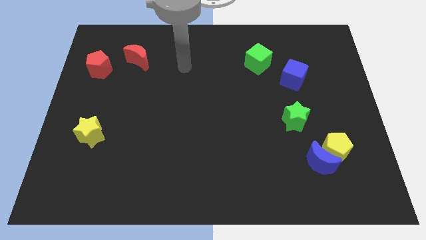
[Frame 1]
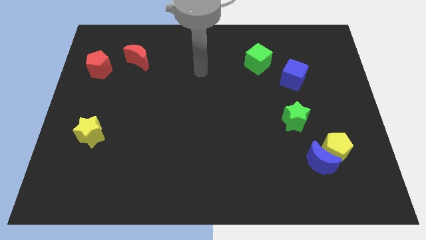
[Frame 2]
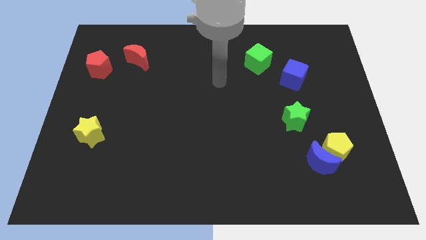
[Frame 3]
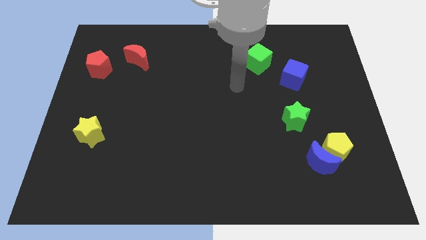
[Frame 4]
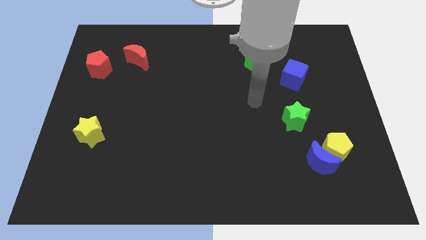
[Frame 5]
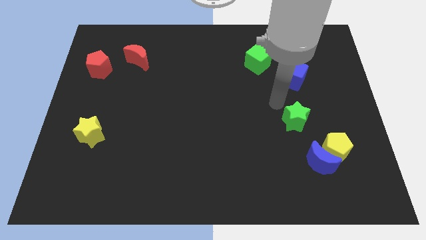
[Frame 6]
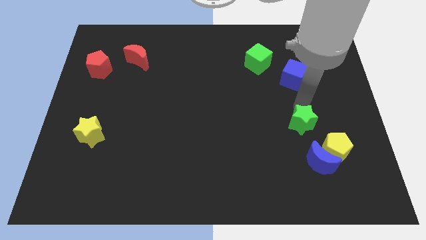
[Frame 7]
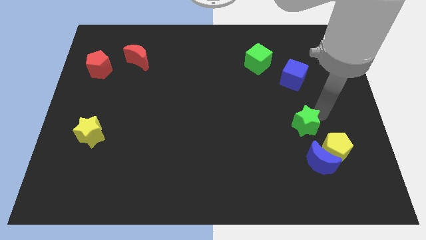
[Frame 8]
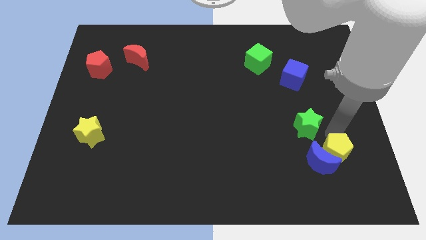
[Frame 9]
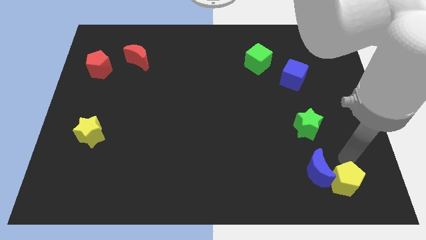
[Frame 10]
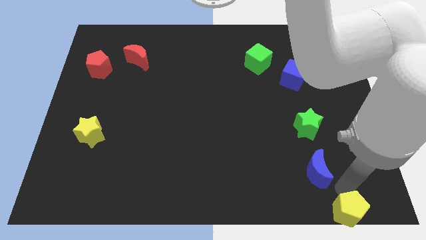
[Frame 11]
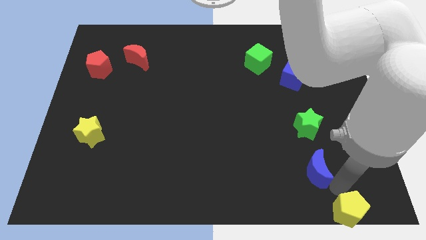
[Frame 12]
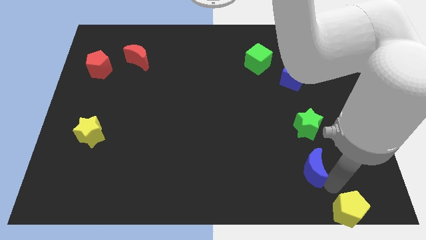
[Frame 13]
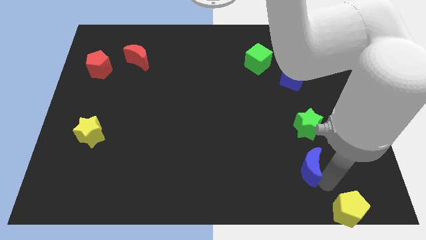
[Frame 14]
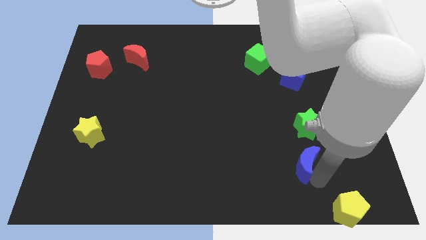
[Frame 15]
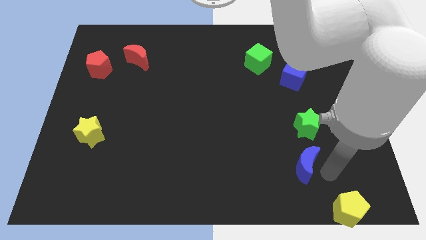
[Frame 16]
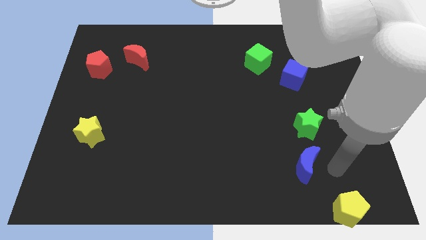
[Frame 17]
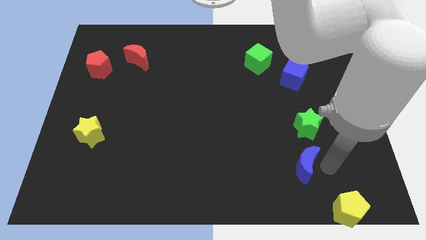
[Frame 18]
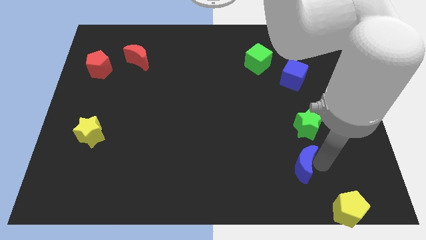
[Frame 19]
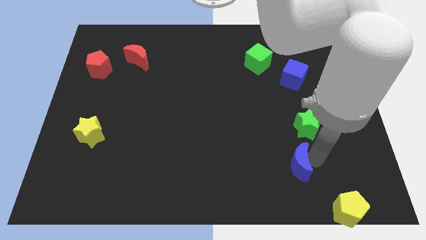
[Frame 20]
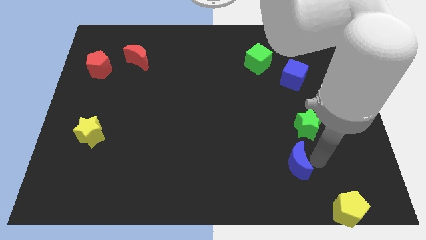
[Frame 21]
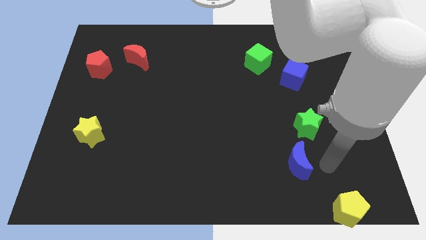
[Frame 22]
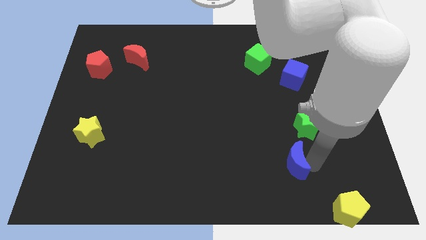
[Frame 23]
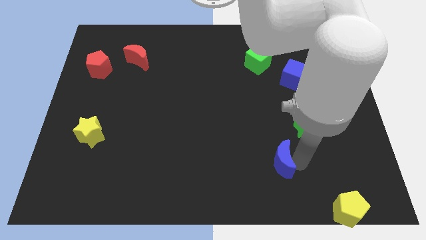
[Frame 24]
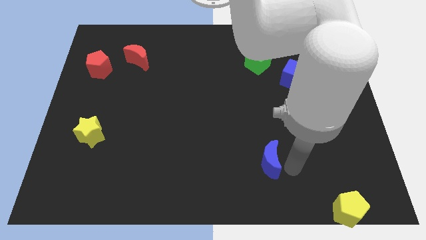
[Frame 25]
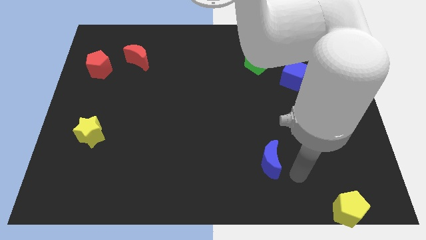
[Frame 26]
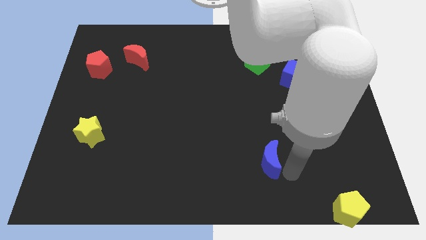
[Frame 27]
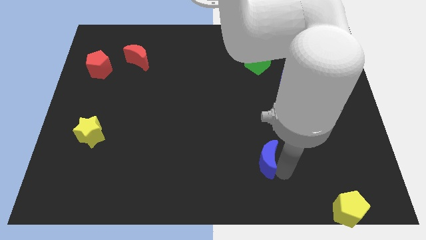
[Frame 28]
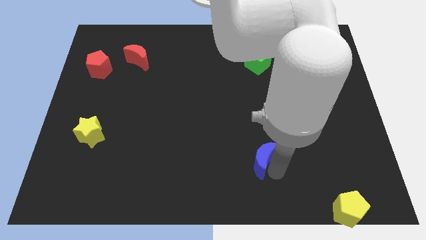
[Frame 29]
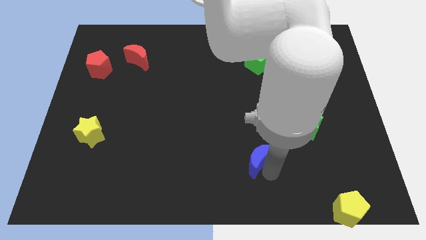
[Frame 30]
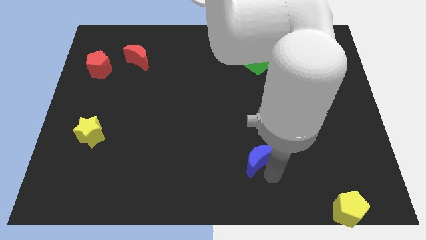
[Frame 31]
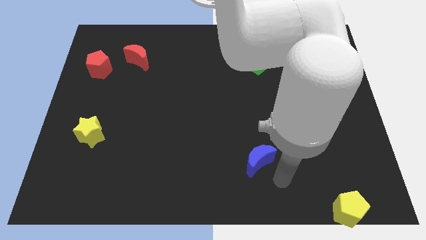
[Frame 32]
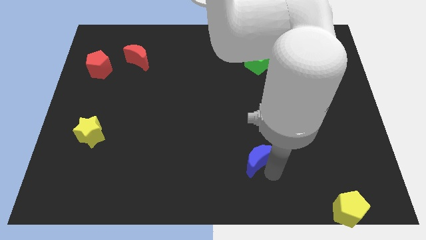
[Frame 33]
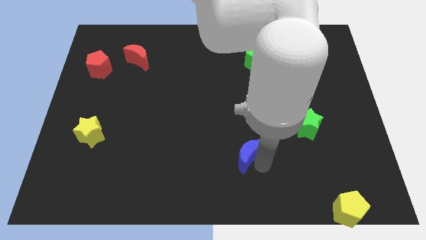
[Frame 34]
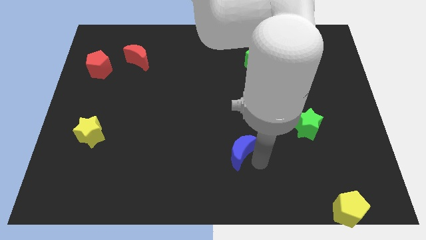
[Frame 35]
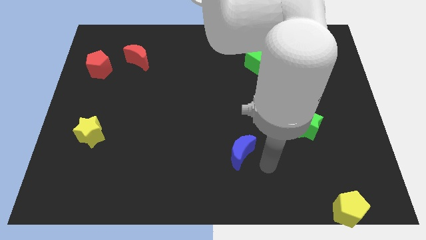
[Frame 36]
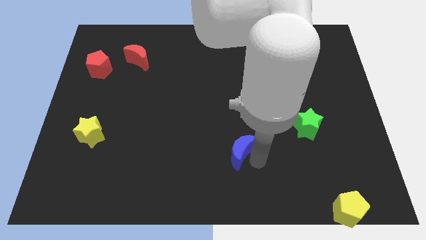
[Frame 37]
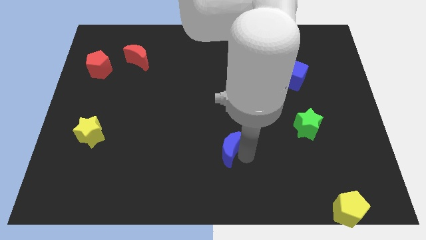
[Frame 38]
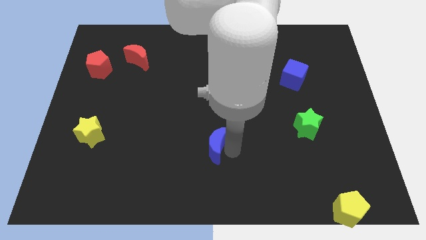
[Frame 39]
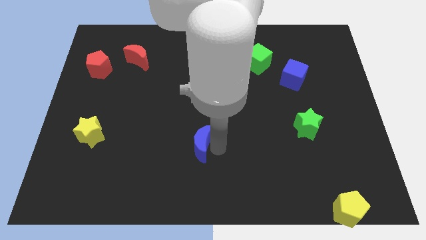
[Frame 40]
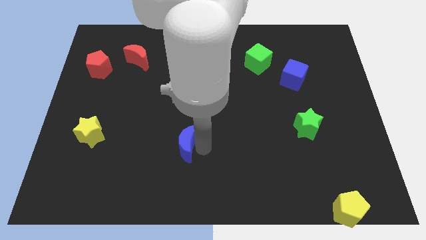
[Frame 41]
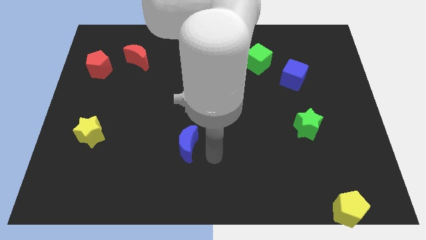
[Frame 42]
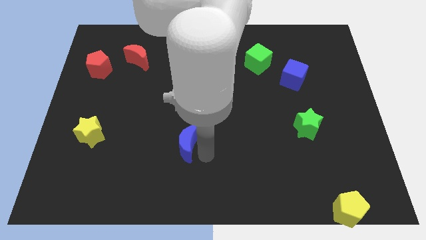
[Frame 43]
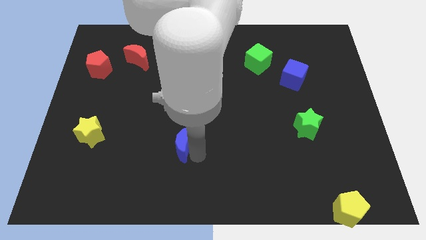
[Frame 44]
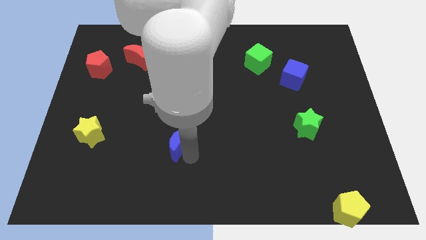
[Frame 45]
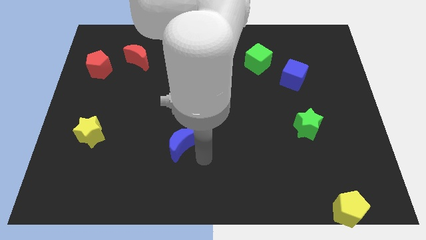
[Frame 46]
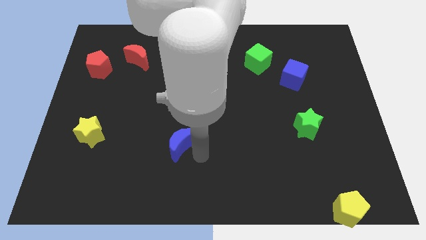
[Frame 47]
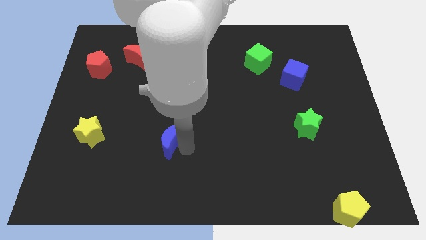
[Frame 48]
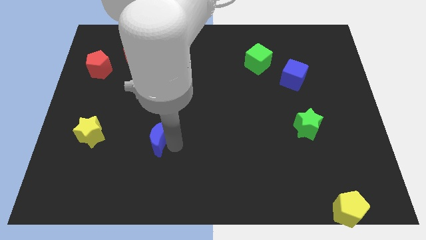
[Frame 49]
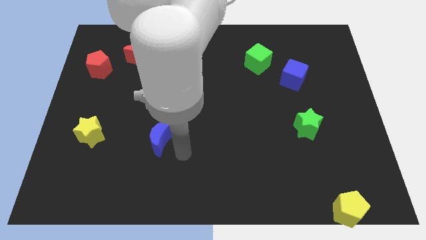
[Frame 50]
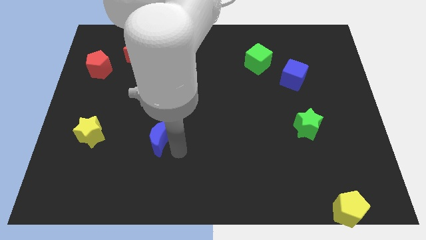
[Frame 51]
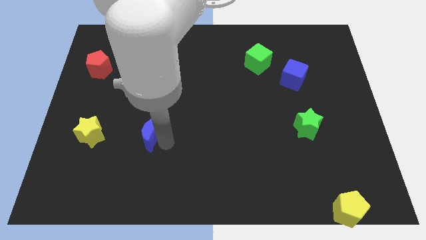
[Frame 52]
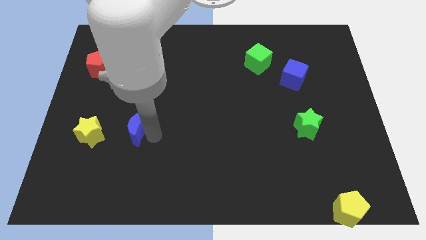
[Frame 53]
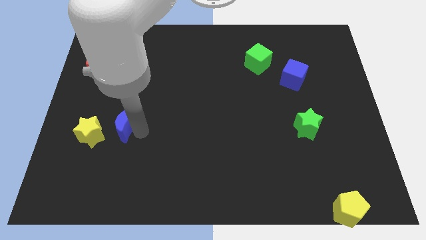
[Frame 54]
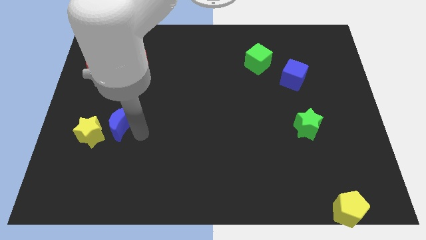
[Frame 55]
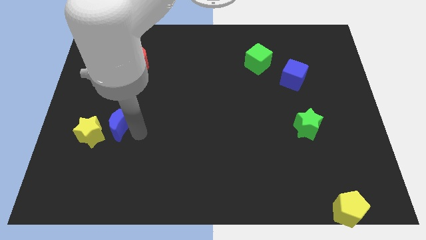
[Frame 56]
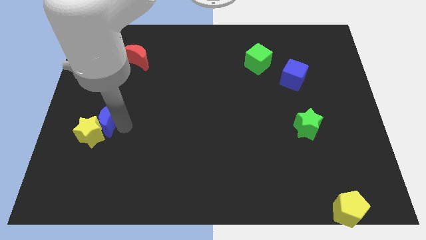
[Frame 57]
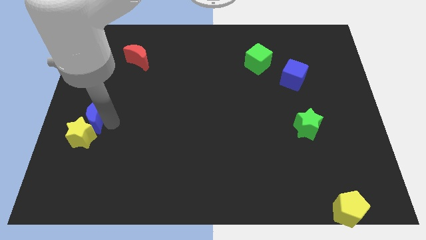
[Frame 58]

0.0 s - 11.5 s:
put the blue moon to the center left

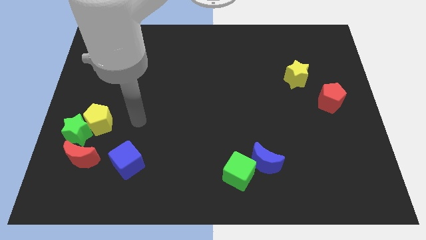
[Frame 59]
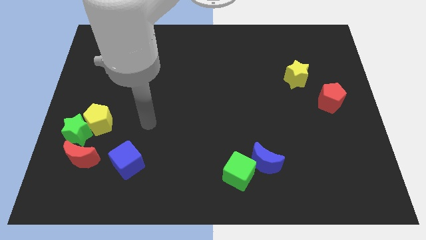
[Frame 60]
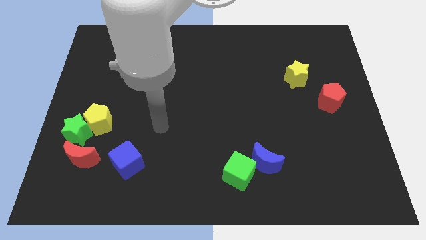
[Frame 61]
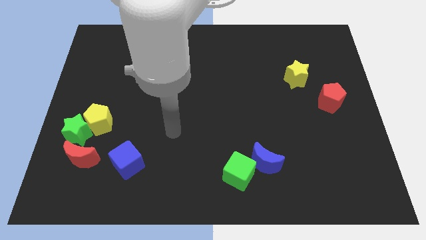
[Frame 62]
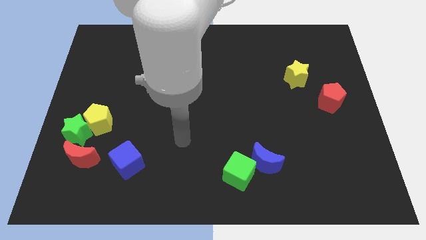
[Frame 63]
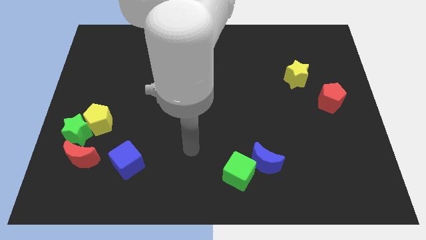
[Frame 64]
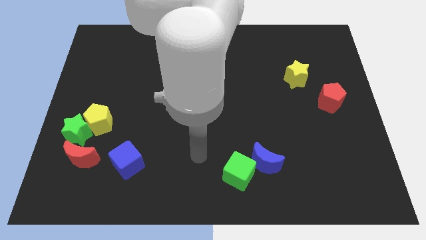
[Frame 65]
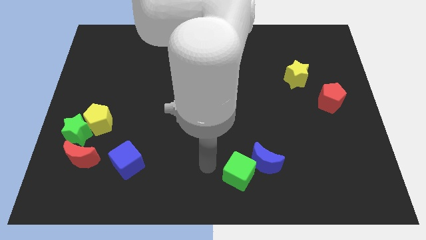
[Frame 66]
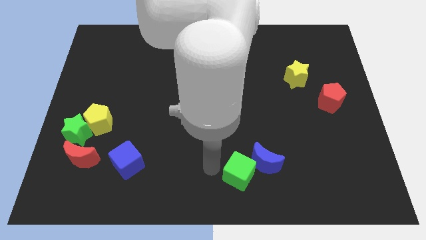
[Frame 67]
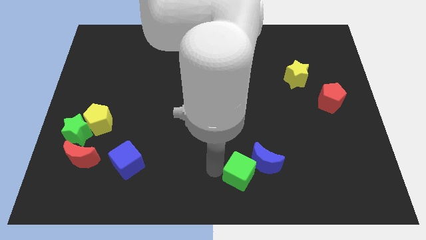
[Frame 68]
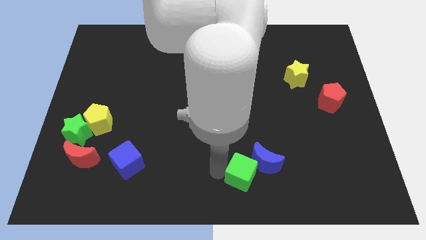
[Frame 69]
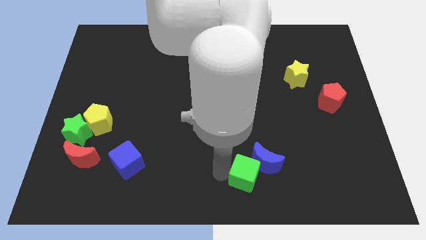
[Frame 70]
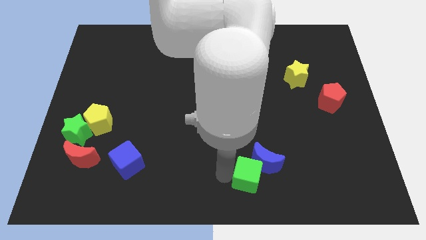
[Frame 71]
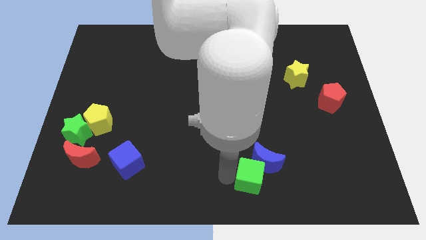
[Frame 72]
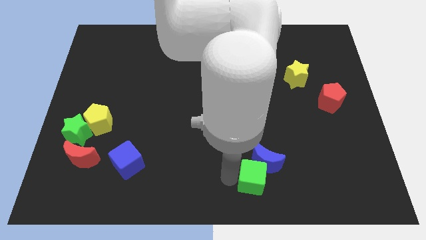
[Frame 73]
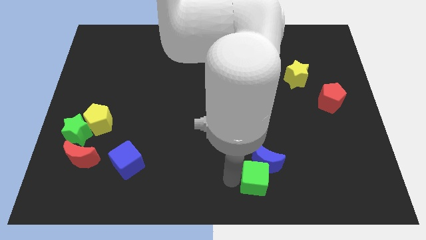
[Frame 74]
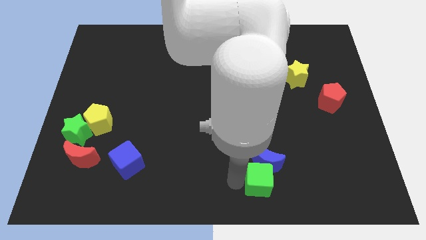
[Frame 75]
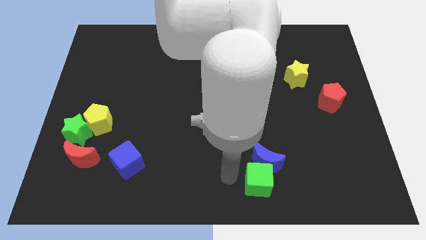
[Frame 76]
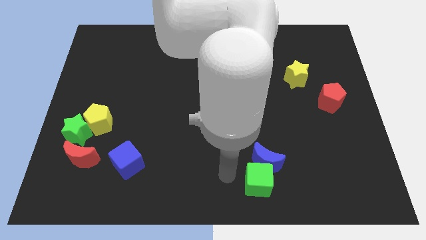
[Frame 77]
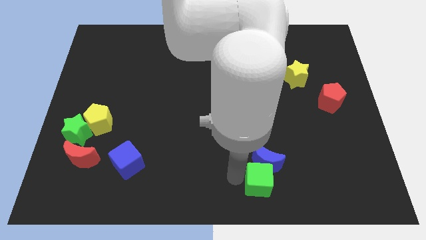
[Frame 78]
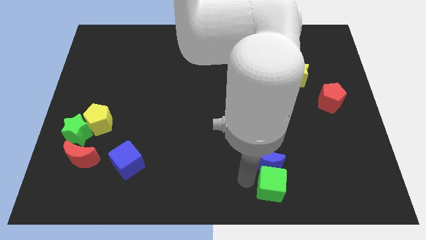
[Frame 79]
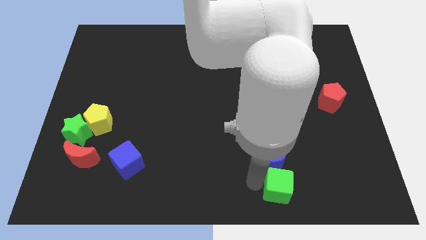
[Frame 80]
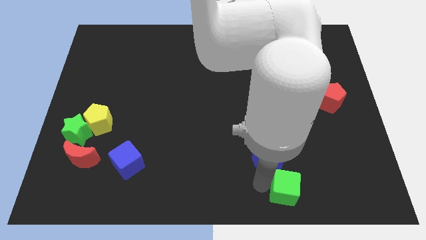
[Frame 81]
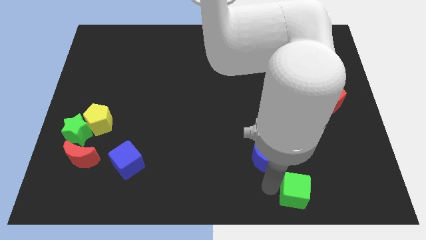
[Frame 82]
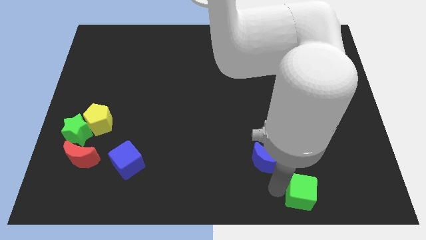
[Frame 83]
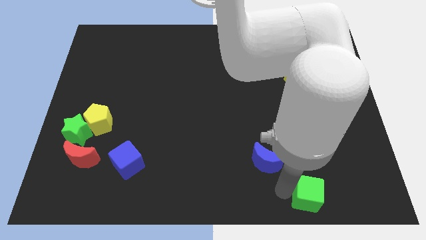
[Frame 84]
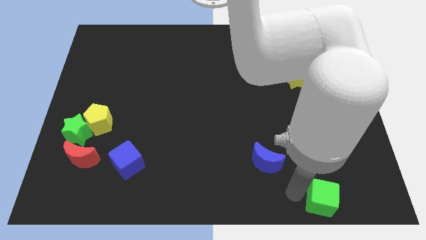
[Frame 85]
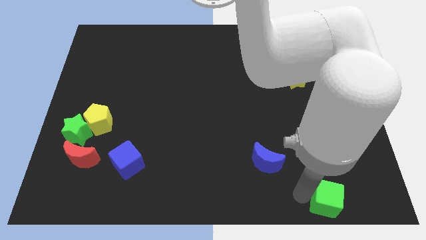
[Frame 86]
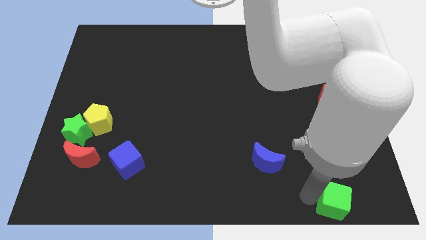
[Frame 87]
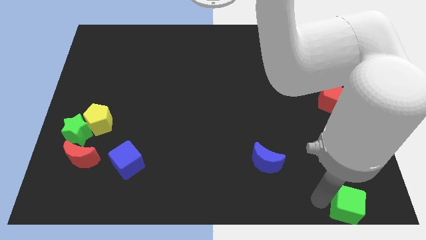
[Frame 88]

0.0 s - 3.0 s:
slide the green cube to the lower right corner
